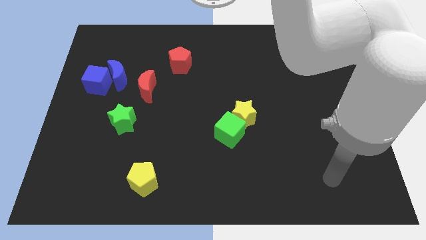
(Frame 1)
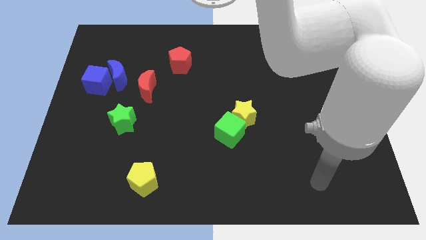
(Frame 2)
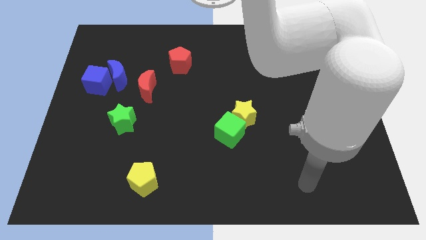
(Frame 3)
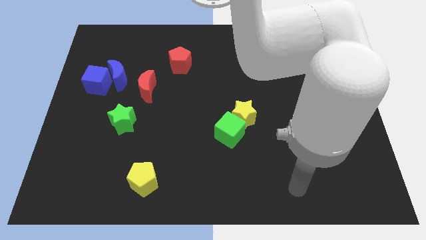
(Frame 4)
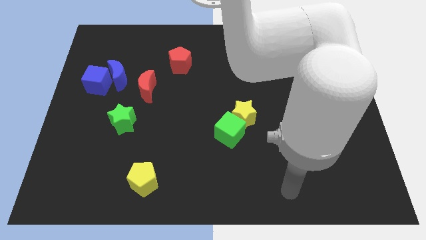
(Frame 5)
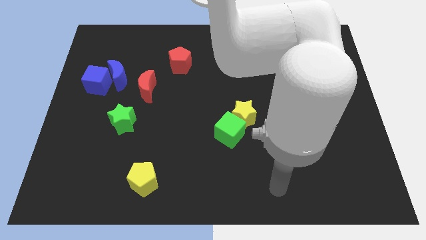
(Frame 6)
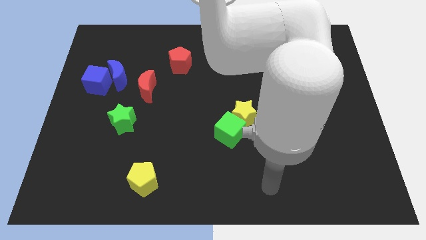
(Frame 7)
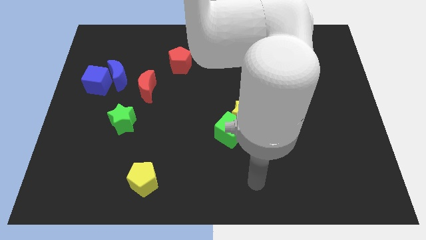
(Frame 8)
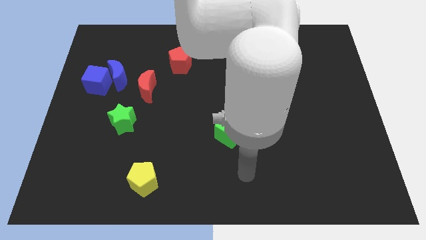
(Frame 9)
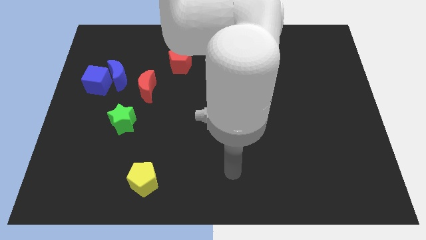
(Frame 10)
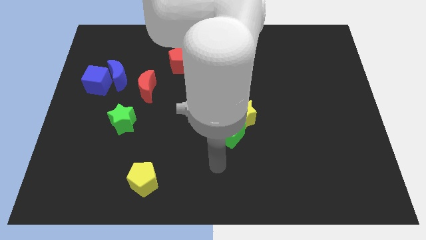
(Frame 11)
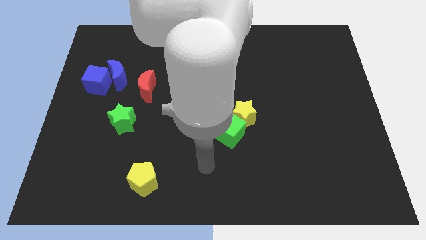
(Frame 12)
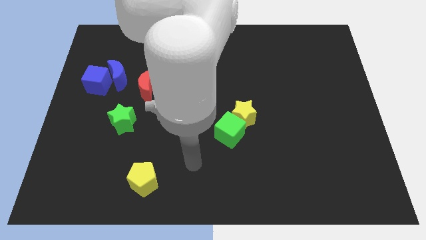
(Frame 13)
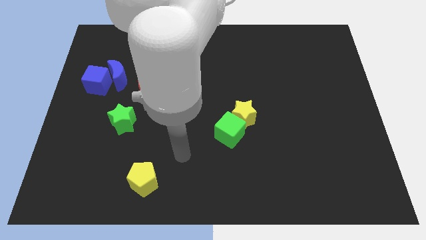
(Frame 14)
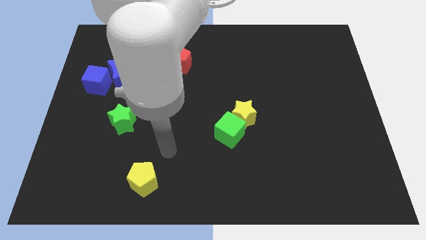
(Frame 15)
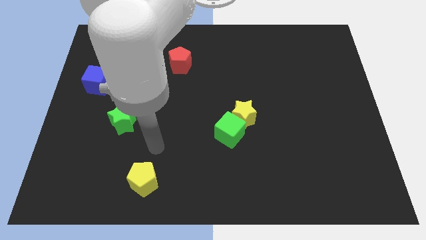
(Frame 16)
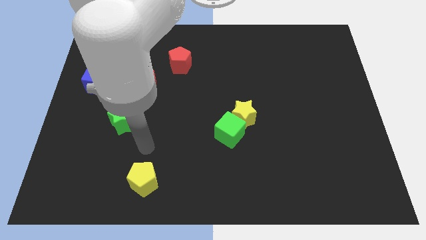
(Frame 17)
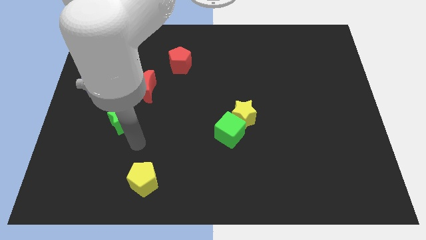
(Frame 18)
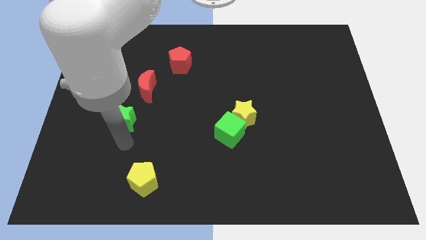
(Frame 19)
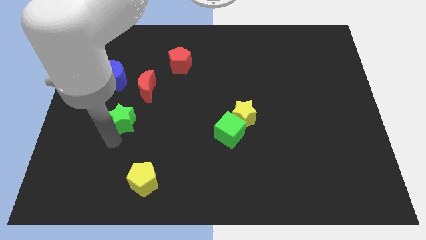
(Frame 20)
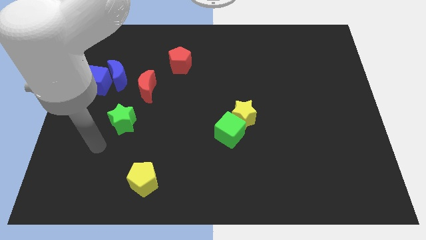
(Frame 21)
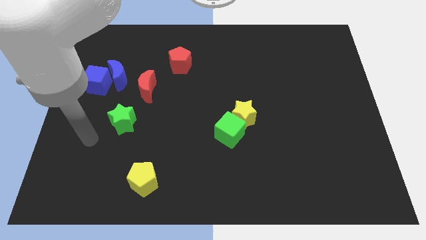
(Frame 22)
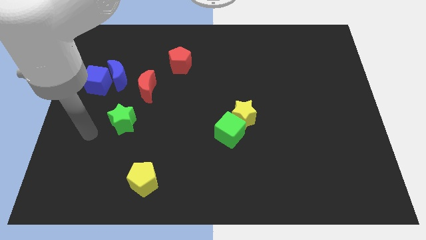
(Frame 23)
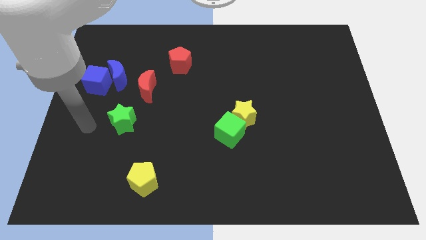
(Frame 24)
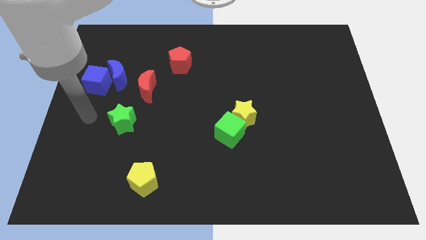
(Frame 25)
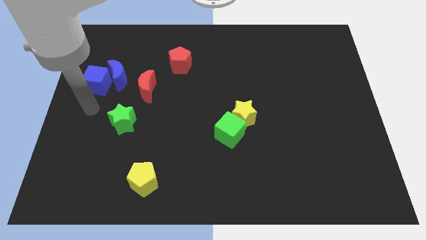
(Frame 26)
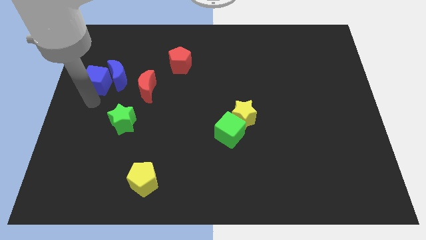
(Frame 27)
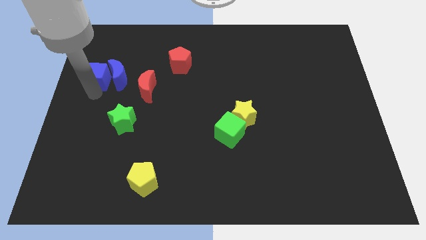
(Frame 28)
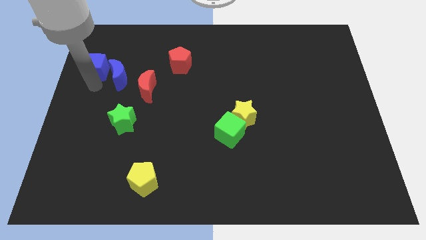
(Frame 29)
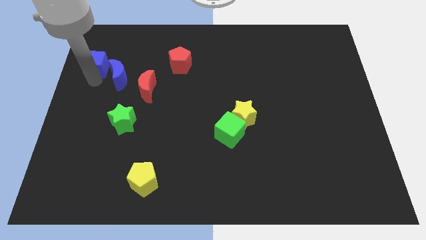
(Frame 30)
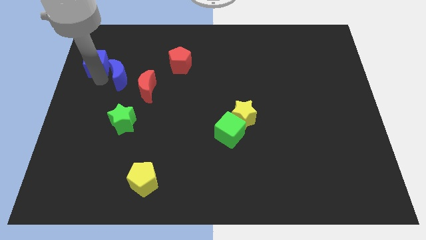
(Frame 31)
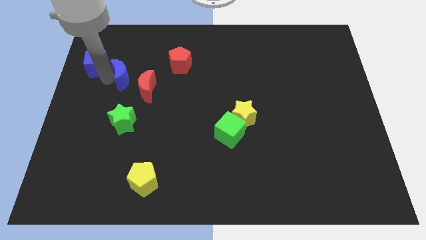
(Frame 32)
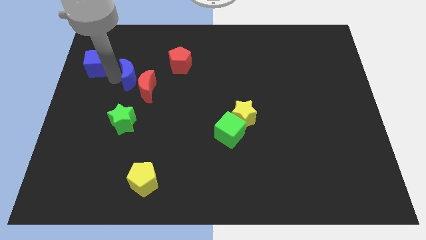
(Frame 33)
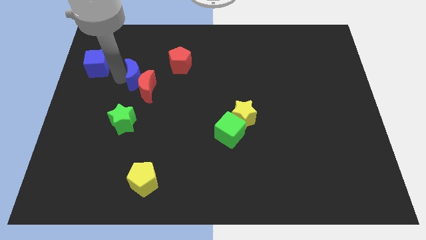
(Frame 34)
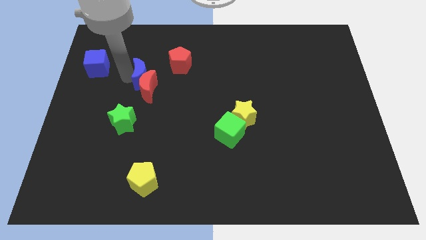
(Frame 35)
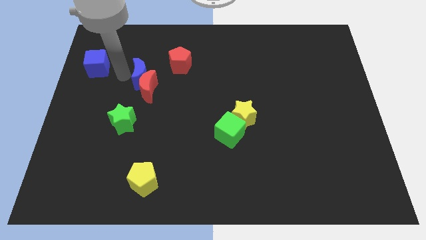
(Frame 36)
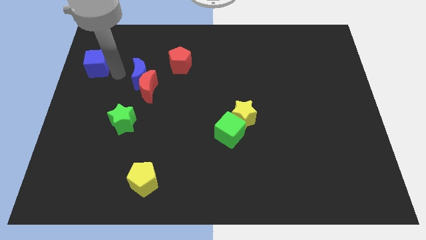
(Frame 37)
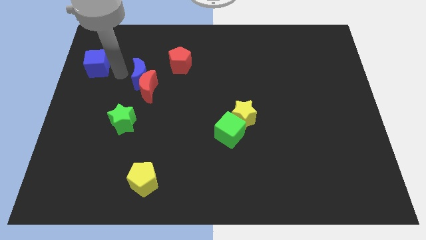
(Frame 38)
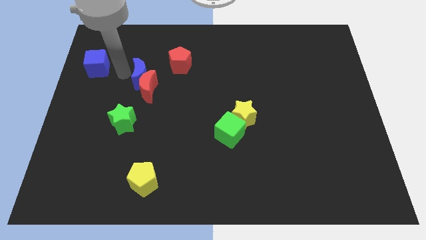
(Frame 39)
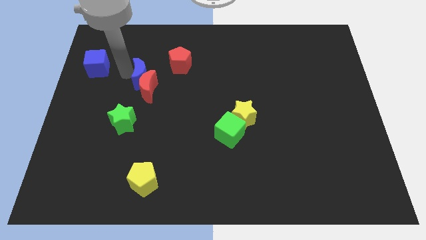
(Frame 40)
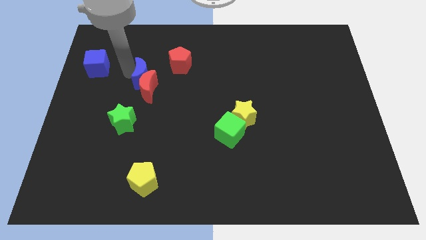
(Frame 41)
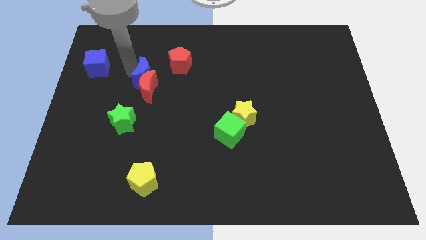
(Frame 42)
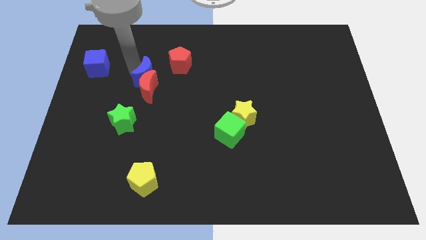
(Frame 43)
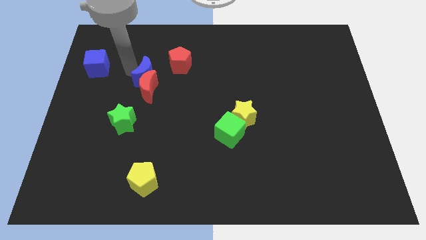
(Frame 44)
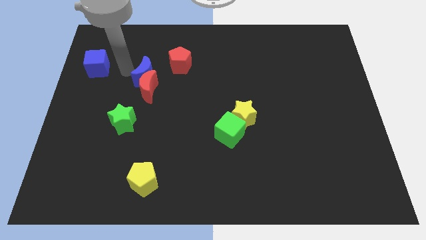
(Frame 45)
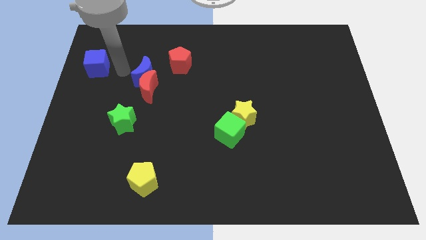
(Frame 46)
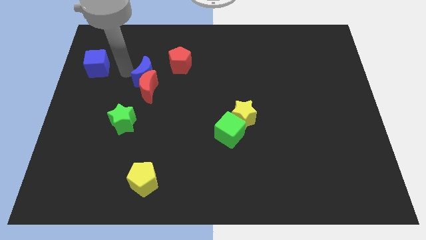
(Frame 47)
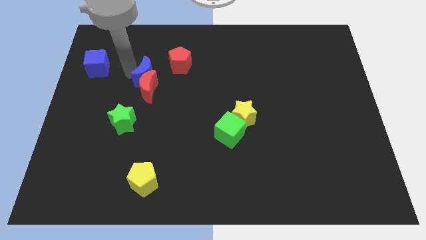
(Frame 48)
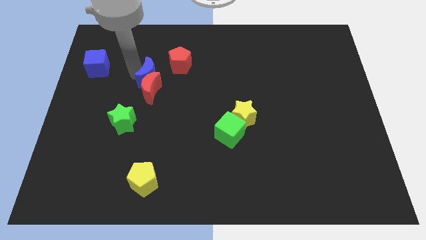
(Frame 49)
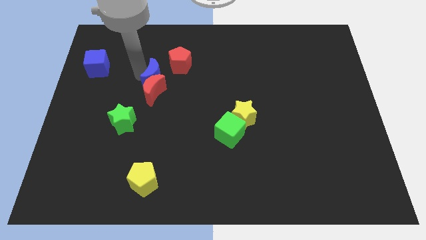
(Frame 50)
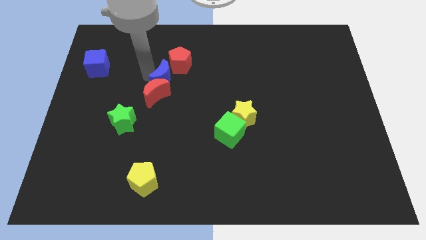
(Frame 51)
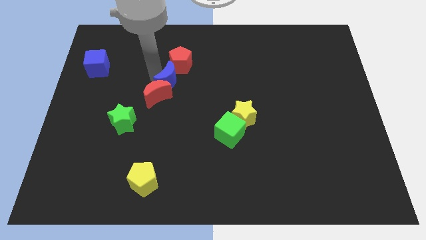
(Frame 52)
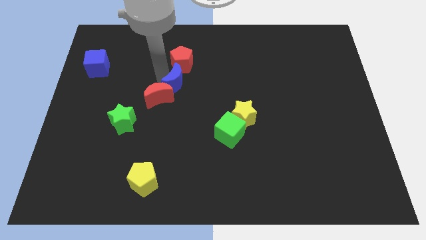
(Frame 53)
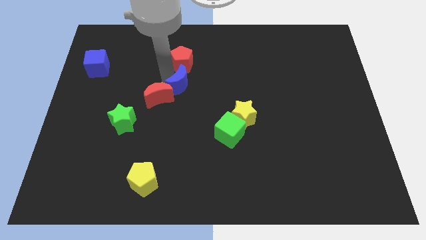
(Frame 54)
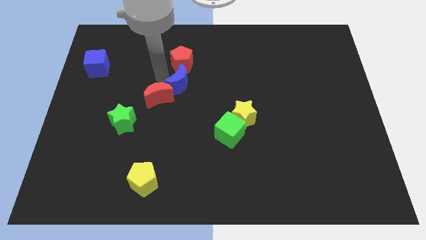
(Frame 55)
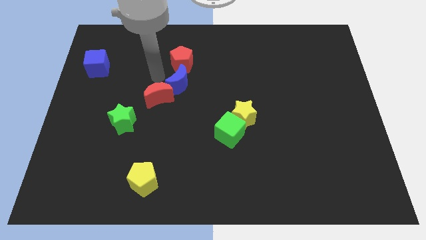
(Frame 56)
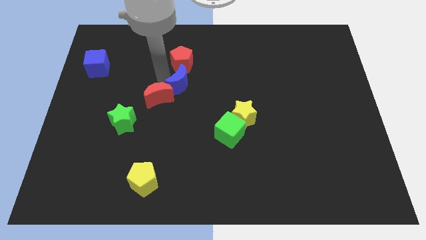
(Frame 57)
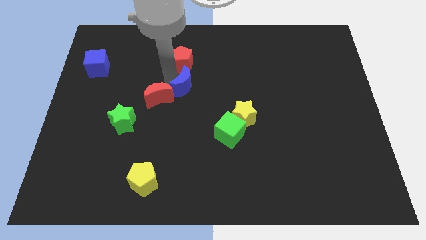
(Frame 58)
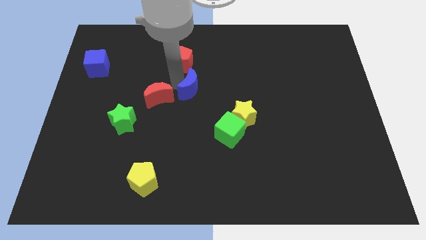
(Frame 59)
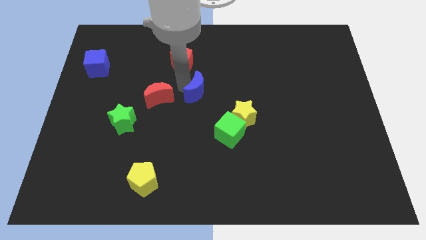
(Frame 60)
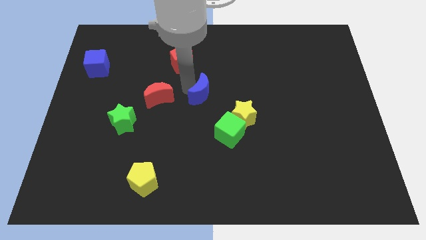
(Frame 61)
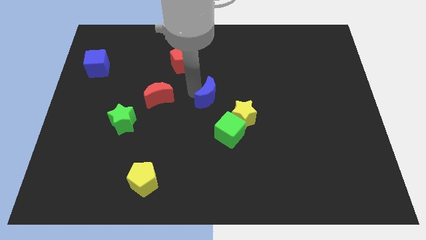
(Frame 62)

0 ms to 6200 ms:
move the blue moon to the top side of the green cube
